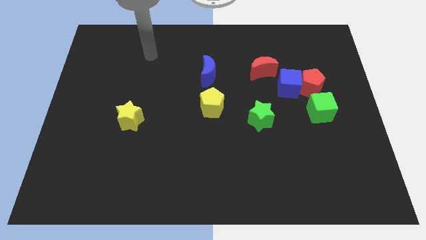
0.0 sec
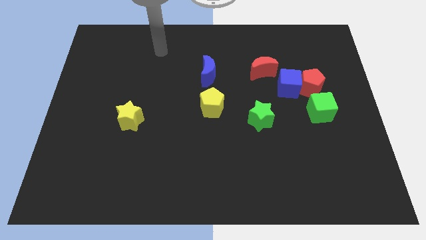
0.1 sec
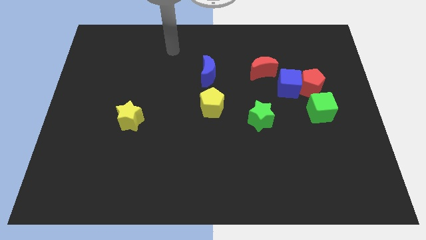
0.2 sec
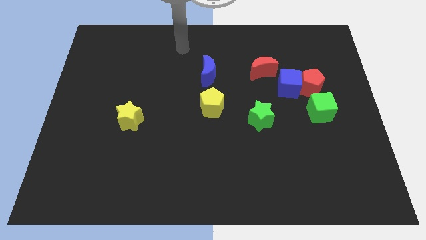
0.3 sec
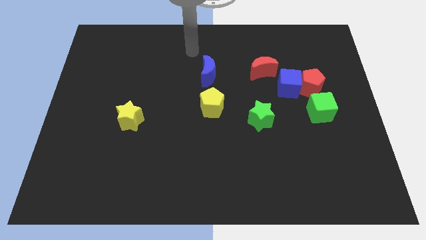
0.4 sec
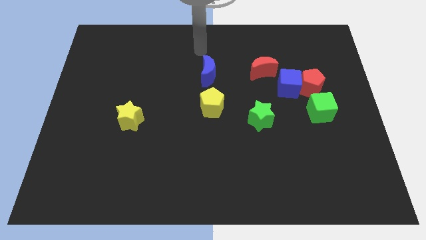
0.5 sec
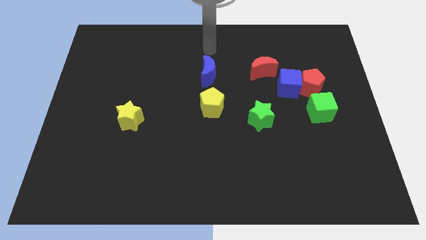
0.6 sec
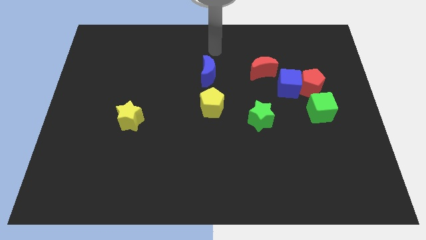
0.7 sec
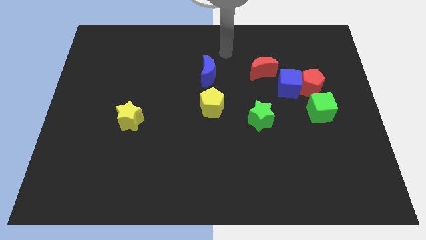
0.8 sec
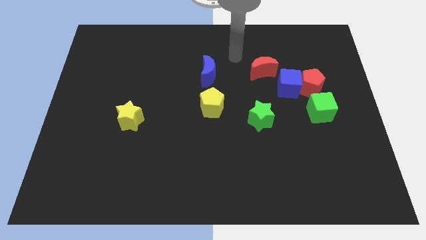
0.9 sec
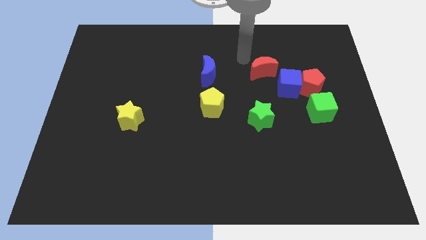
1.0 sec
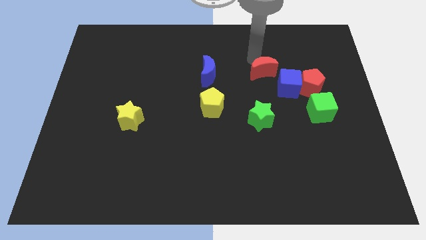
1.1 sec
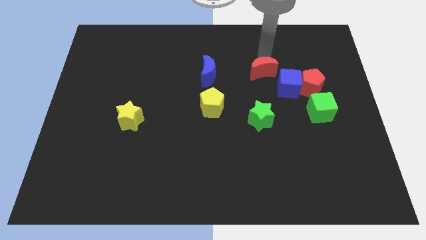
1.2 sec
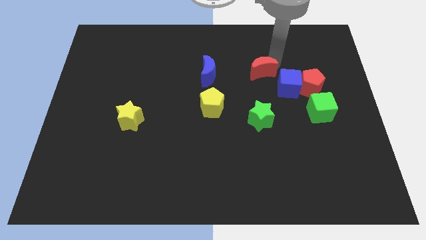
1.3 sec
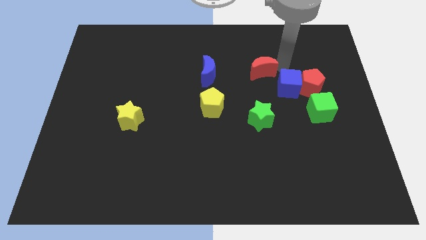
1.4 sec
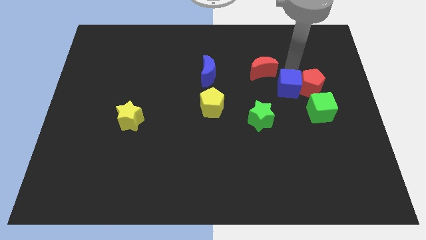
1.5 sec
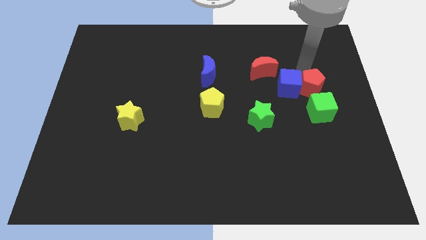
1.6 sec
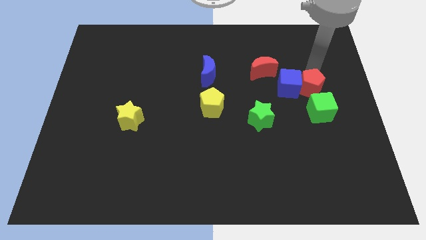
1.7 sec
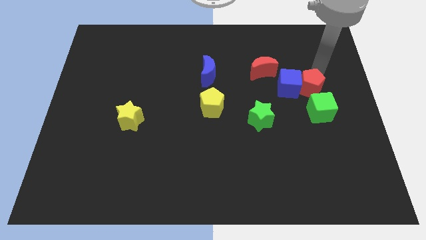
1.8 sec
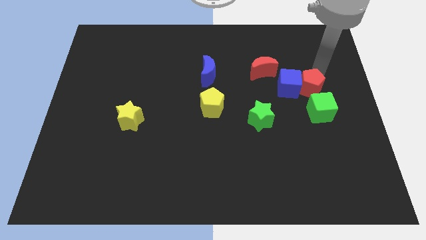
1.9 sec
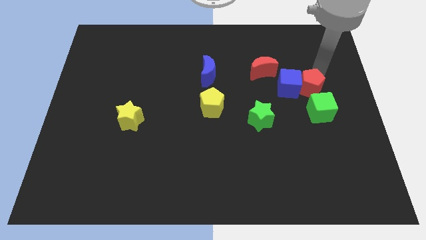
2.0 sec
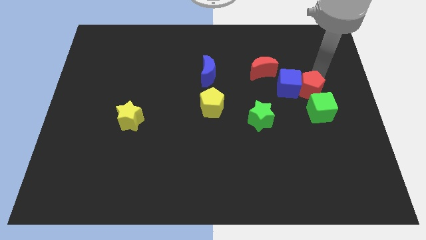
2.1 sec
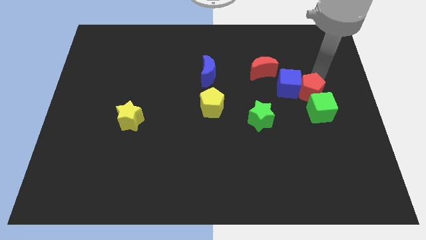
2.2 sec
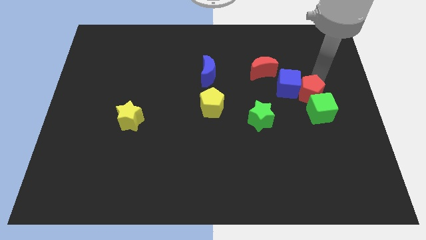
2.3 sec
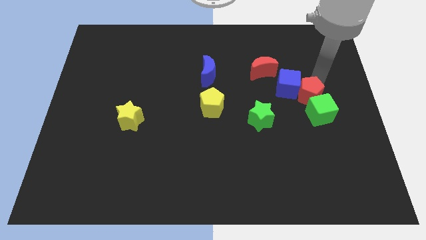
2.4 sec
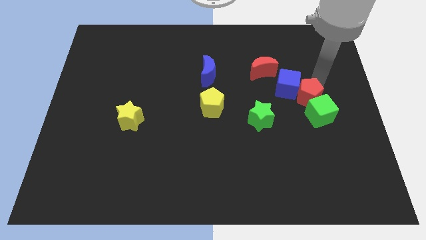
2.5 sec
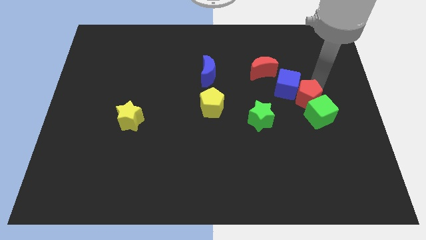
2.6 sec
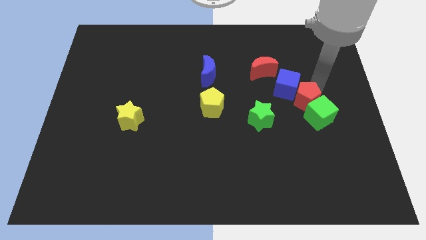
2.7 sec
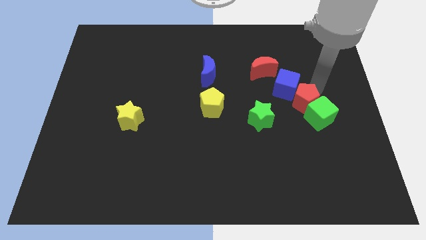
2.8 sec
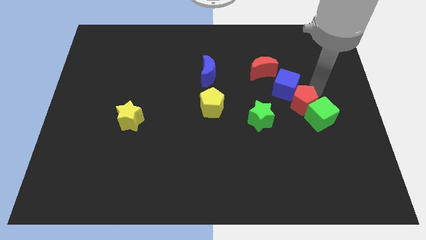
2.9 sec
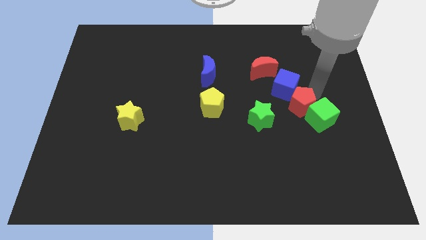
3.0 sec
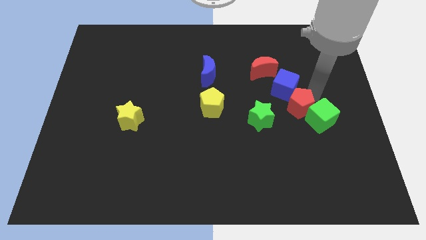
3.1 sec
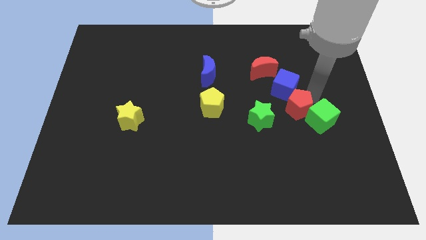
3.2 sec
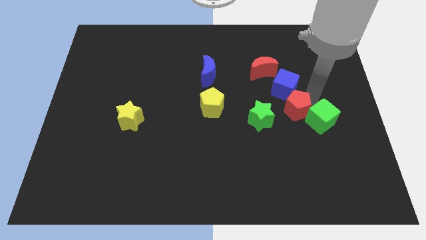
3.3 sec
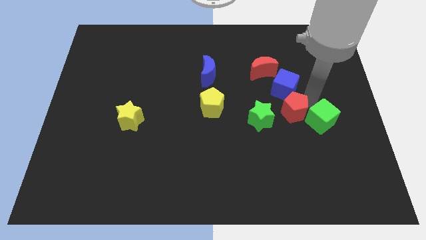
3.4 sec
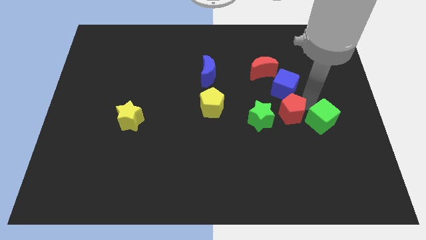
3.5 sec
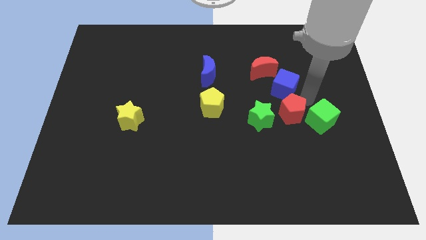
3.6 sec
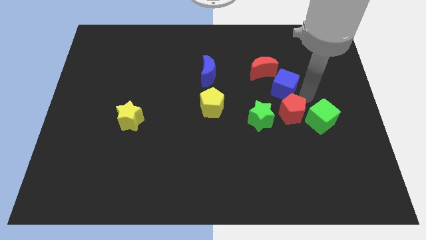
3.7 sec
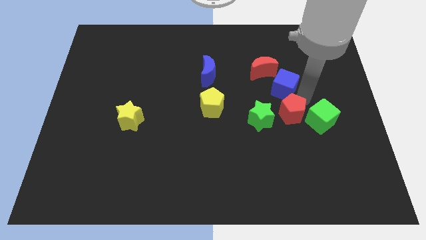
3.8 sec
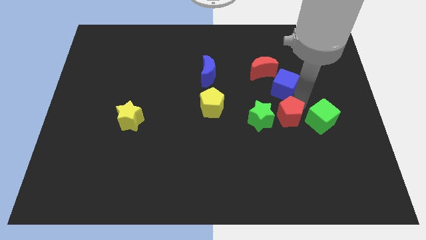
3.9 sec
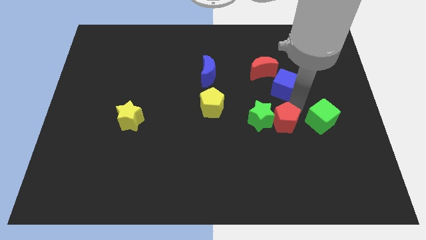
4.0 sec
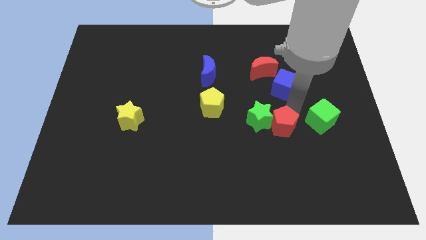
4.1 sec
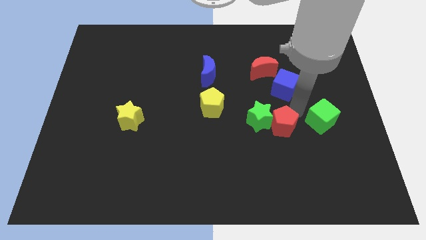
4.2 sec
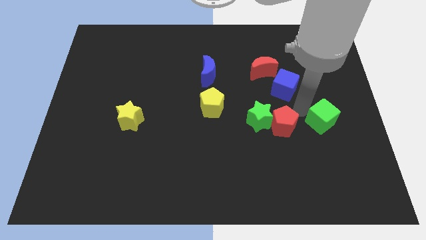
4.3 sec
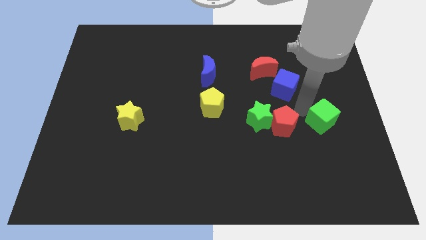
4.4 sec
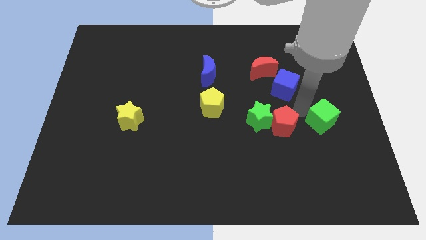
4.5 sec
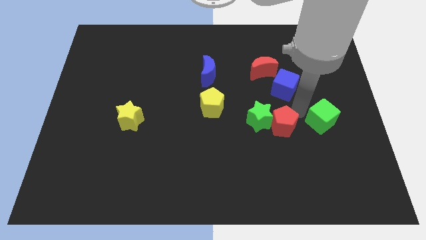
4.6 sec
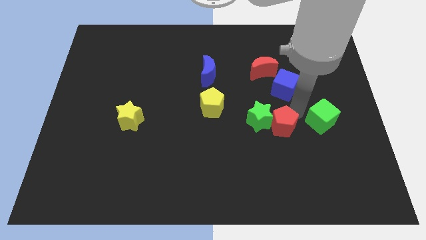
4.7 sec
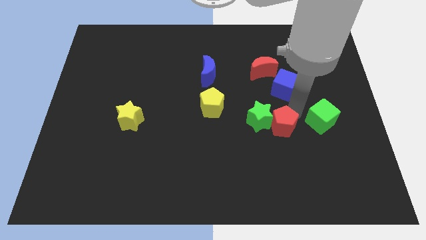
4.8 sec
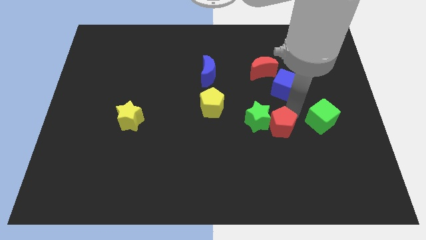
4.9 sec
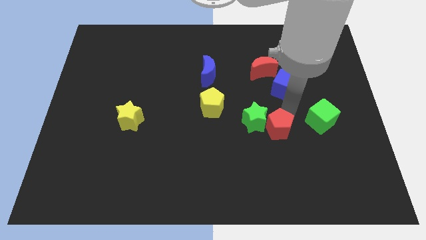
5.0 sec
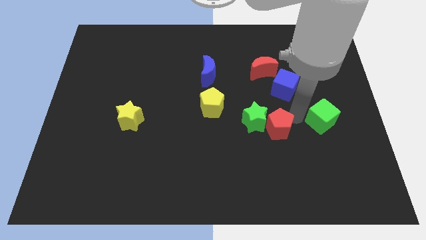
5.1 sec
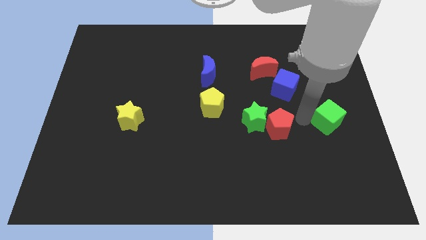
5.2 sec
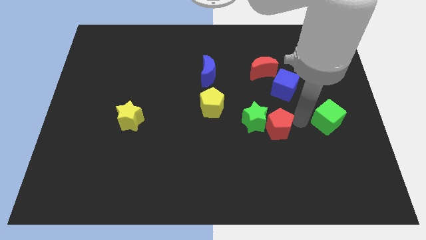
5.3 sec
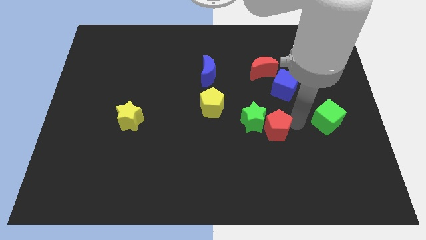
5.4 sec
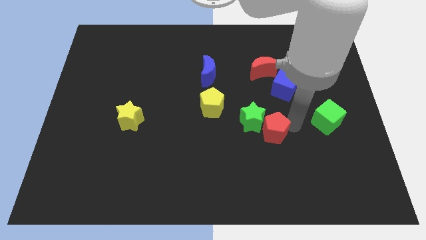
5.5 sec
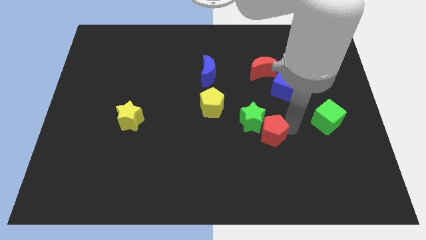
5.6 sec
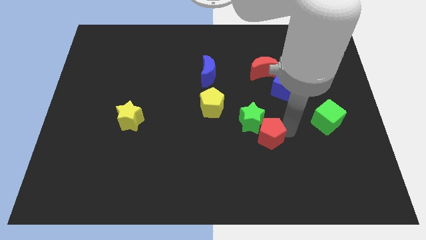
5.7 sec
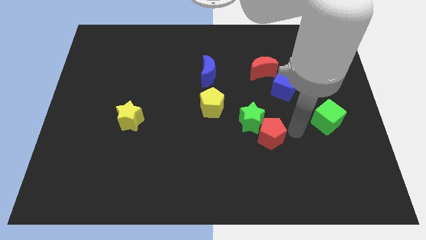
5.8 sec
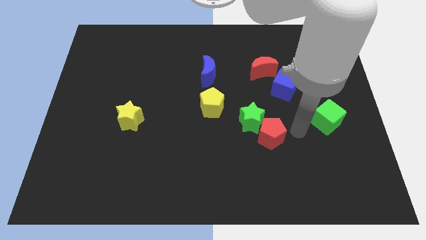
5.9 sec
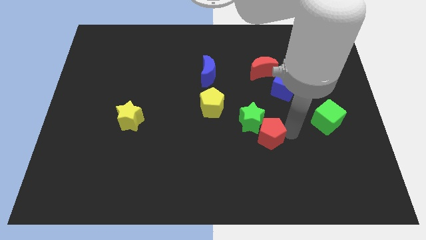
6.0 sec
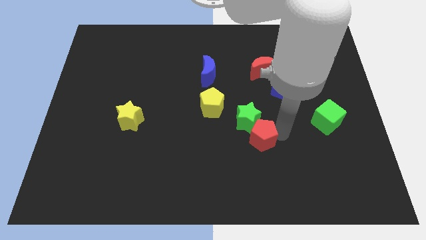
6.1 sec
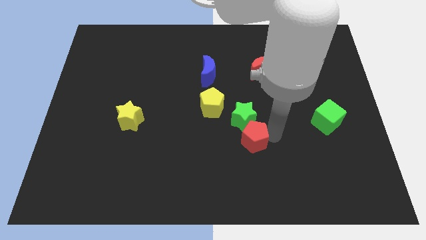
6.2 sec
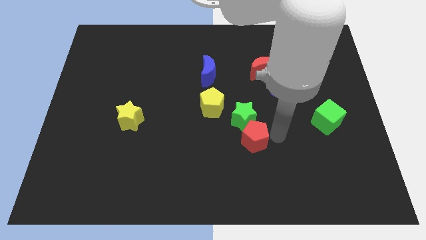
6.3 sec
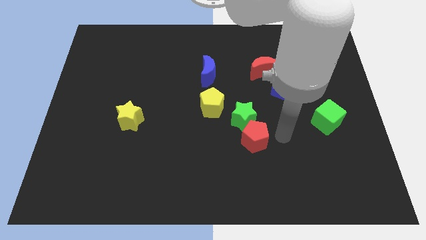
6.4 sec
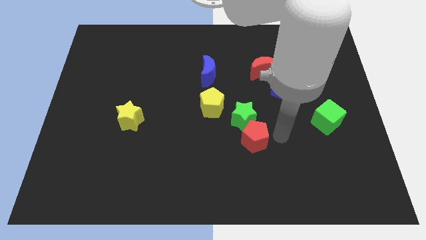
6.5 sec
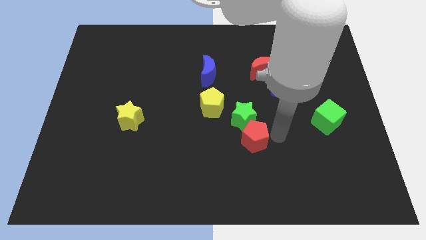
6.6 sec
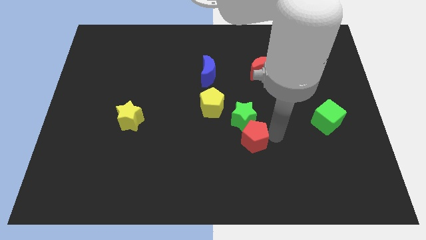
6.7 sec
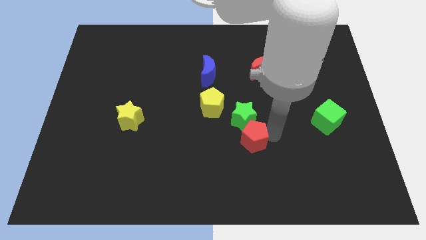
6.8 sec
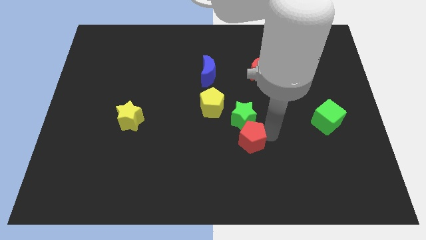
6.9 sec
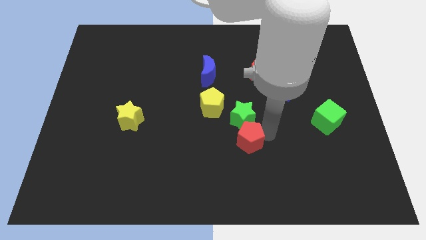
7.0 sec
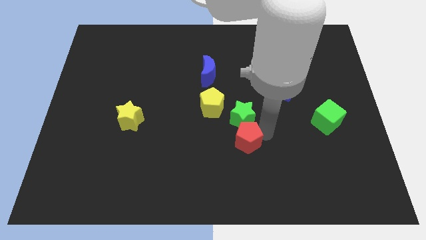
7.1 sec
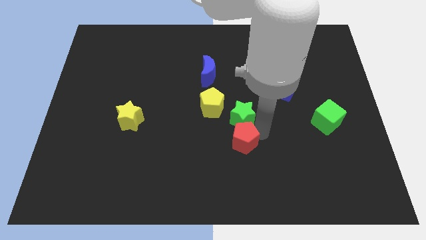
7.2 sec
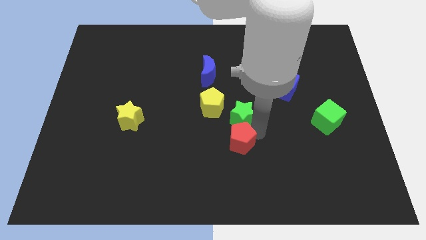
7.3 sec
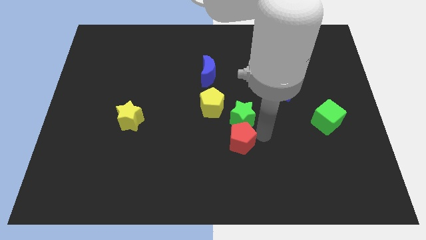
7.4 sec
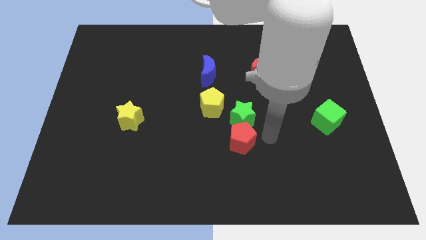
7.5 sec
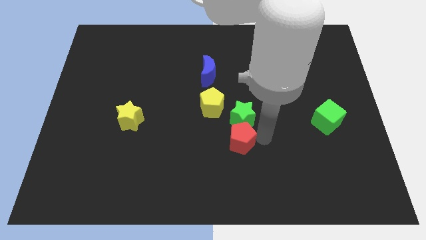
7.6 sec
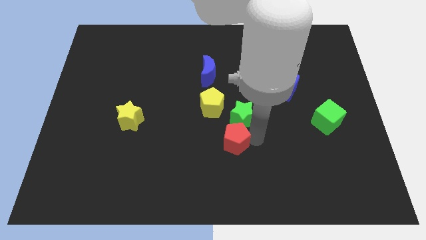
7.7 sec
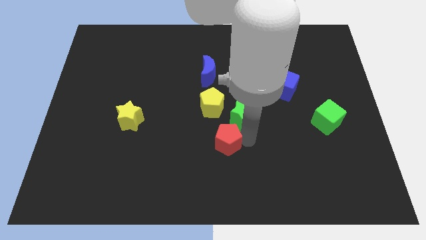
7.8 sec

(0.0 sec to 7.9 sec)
slide the red pentagon to the bottom of the yellow pentagon
